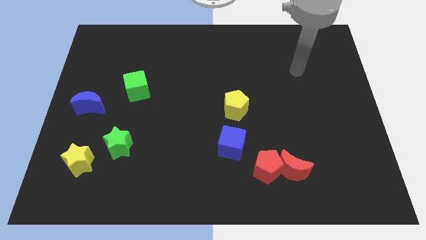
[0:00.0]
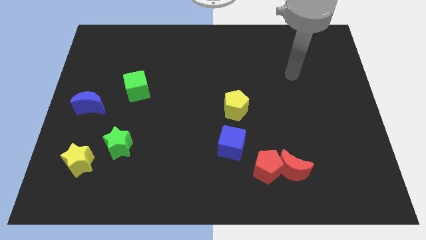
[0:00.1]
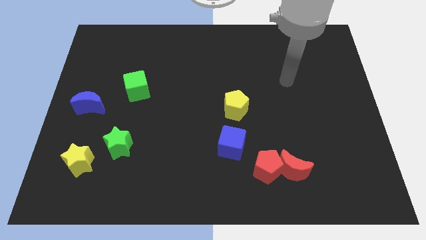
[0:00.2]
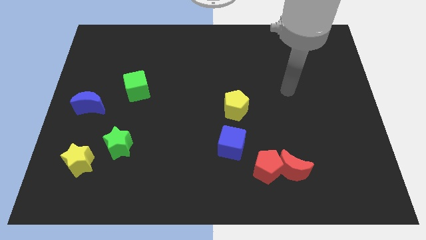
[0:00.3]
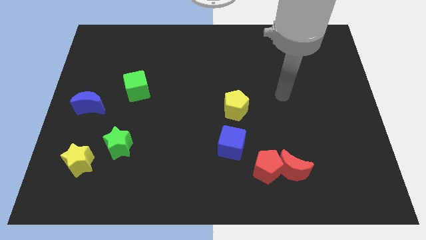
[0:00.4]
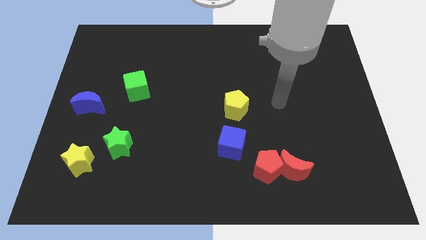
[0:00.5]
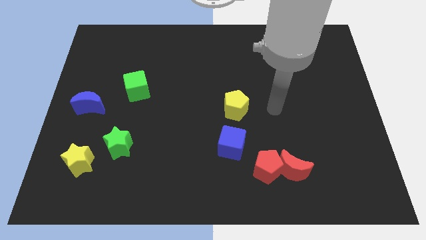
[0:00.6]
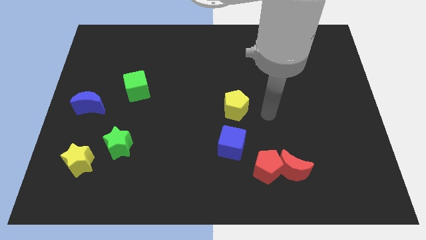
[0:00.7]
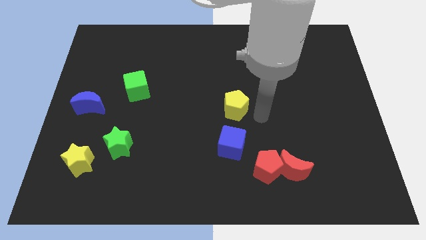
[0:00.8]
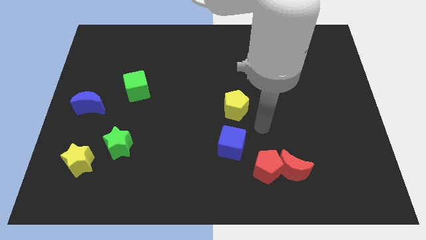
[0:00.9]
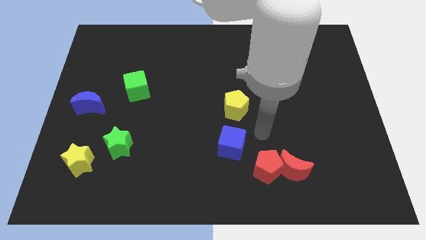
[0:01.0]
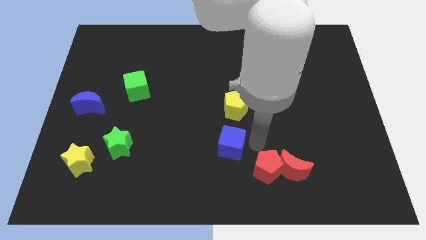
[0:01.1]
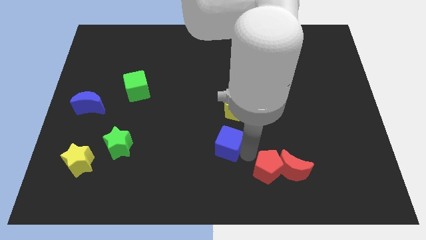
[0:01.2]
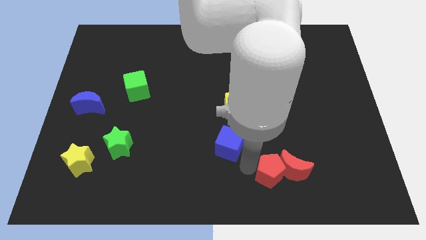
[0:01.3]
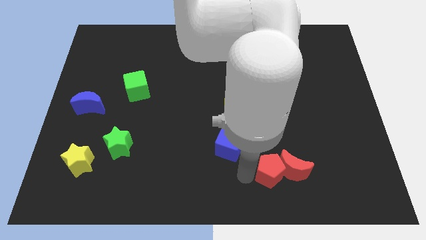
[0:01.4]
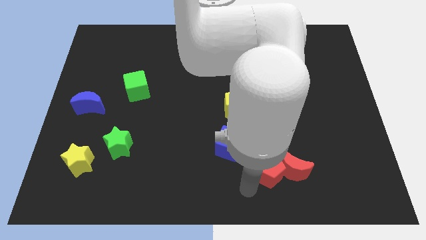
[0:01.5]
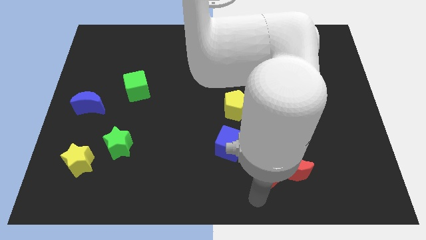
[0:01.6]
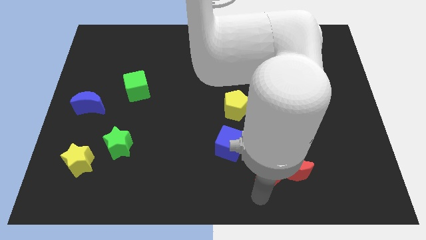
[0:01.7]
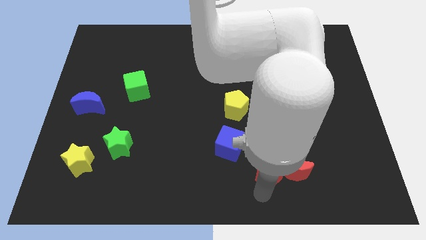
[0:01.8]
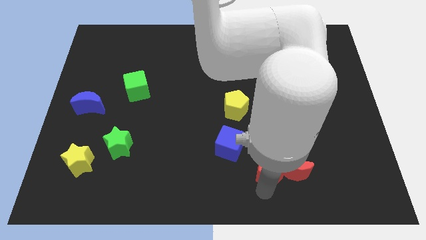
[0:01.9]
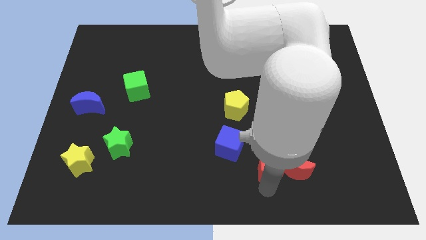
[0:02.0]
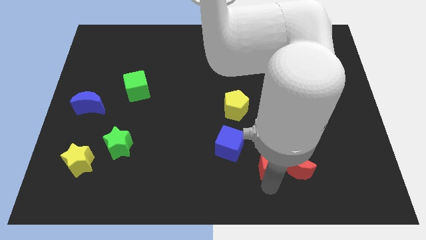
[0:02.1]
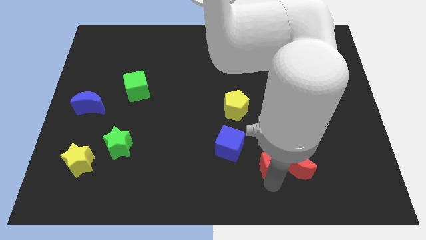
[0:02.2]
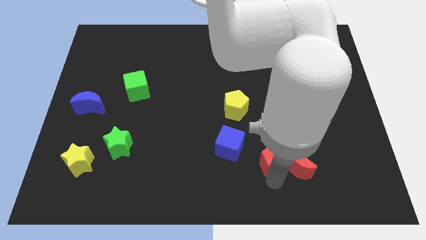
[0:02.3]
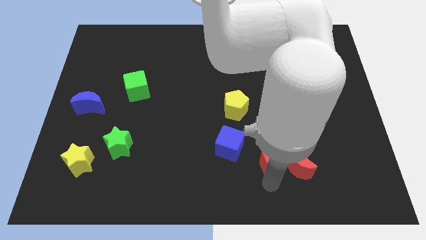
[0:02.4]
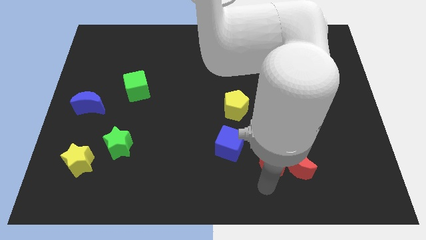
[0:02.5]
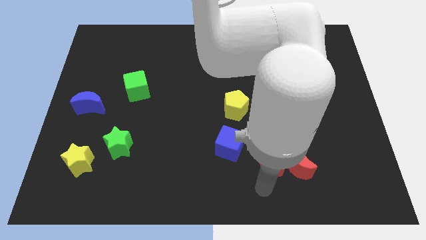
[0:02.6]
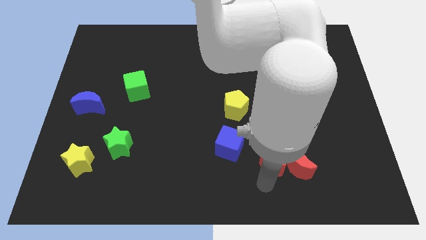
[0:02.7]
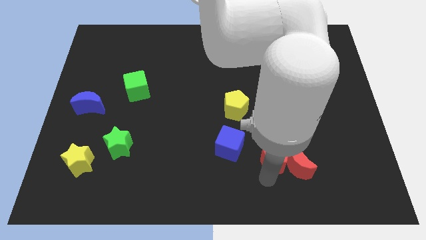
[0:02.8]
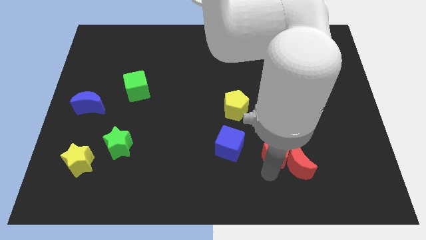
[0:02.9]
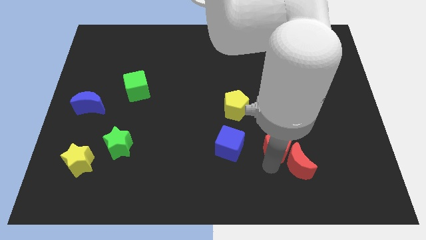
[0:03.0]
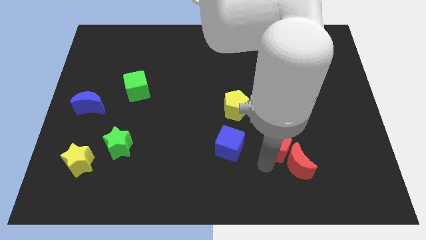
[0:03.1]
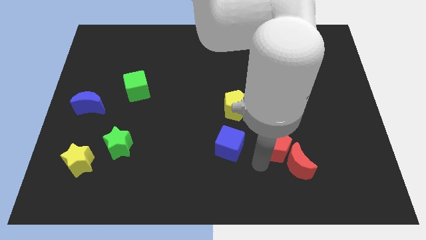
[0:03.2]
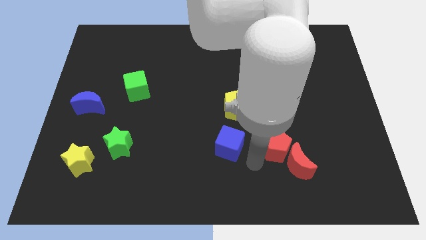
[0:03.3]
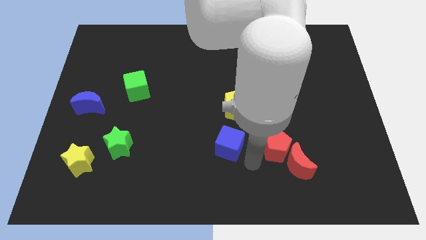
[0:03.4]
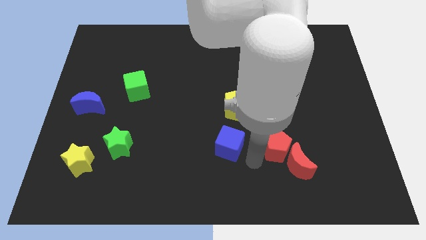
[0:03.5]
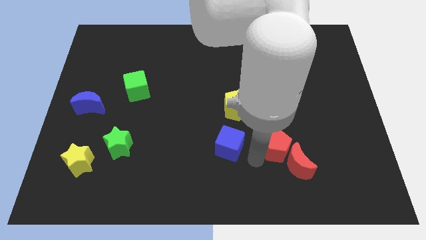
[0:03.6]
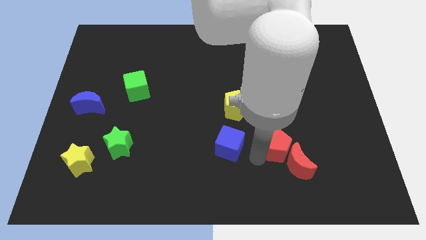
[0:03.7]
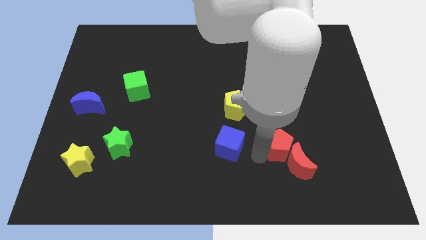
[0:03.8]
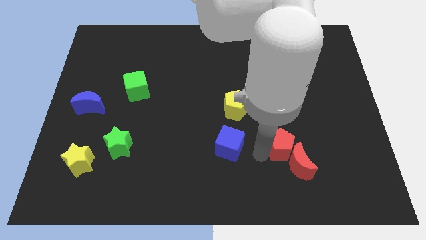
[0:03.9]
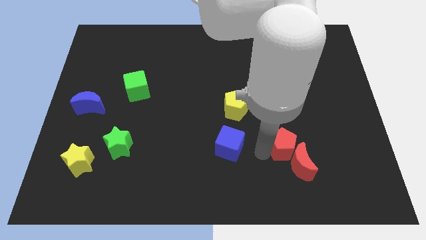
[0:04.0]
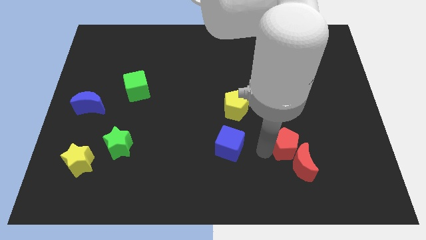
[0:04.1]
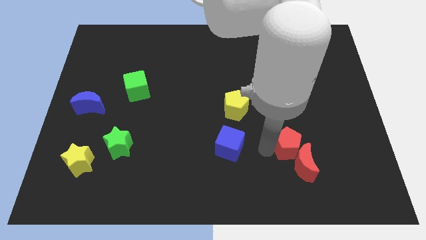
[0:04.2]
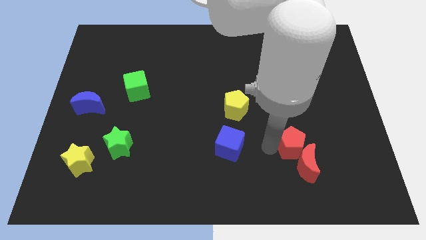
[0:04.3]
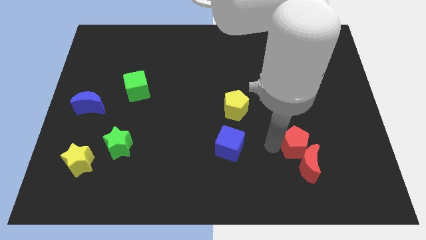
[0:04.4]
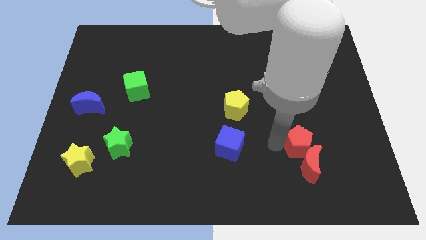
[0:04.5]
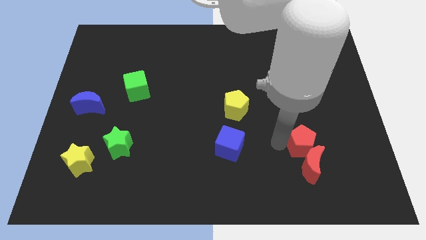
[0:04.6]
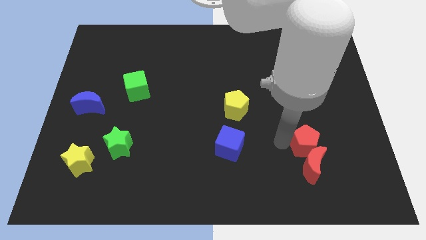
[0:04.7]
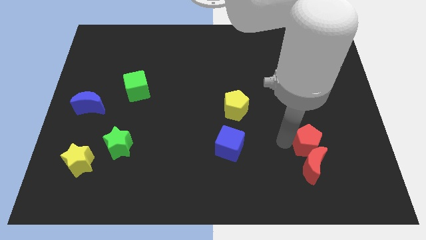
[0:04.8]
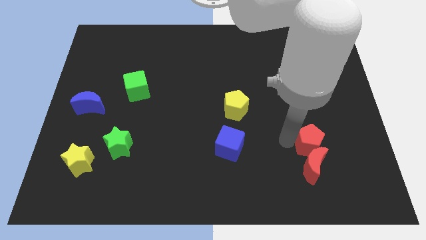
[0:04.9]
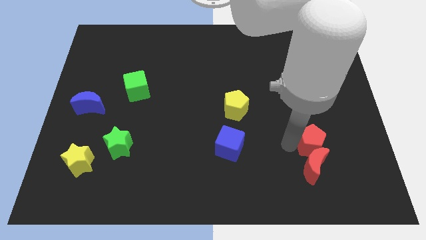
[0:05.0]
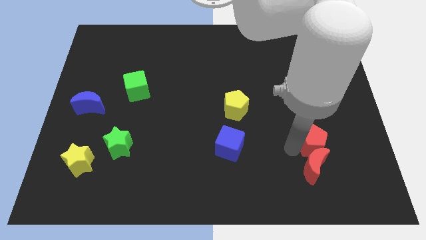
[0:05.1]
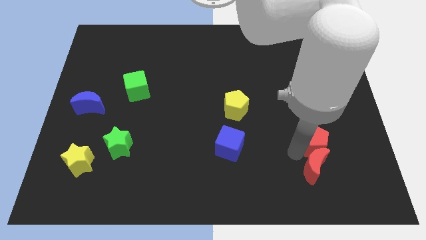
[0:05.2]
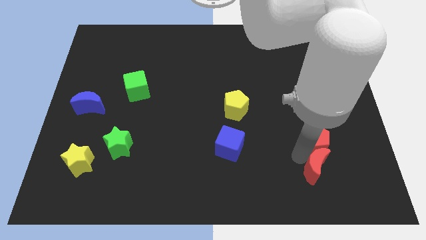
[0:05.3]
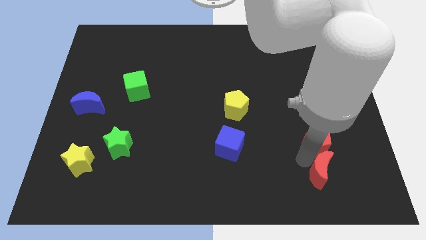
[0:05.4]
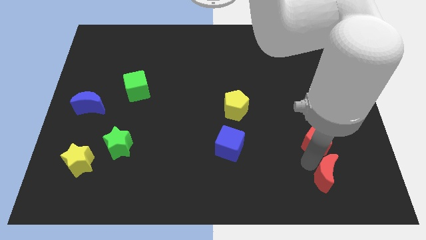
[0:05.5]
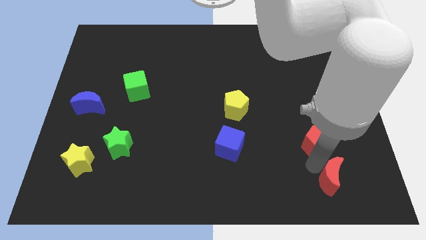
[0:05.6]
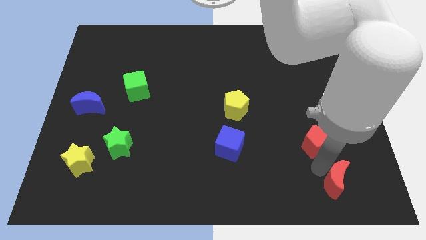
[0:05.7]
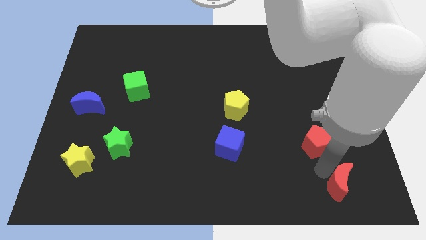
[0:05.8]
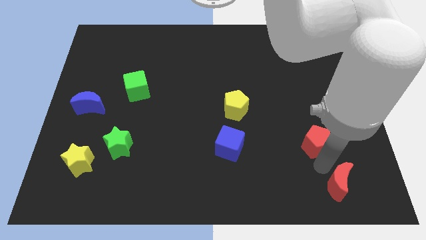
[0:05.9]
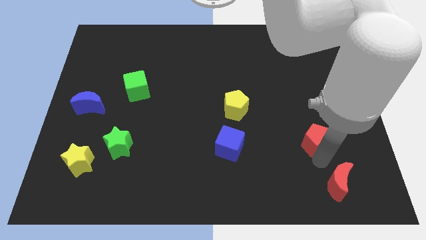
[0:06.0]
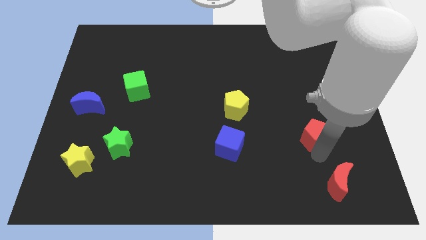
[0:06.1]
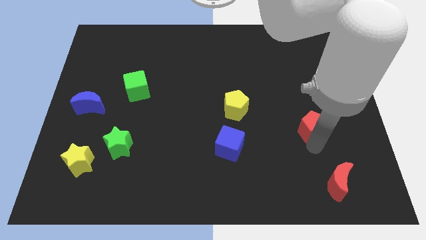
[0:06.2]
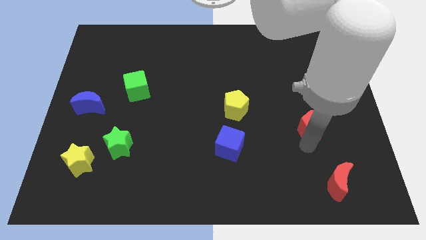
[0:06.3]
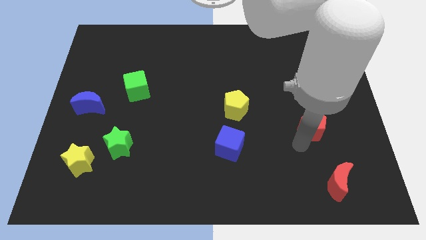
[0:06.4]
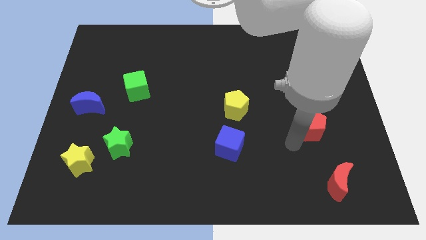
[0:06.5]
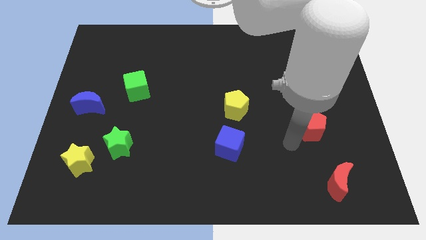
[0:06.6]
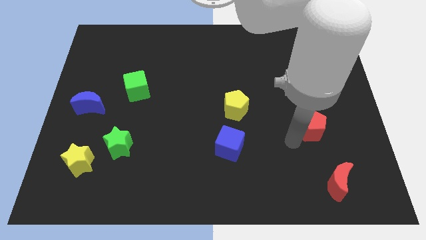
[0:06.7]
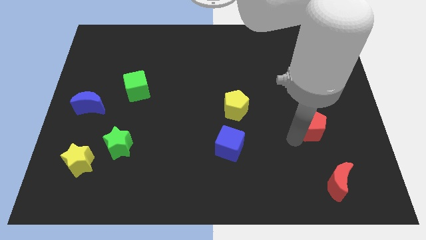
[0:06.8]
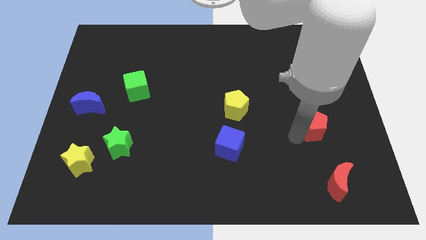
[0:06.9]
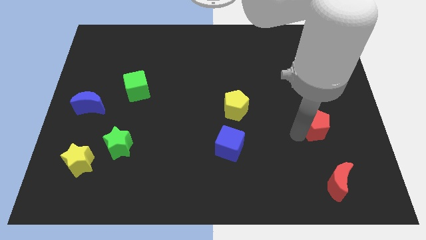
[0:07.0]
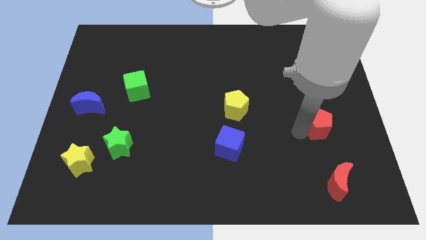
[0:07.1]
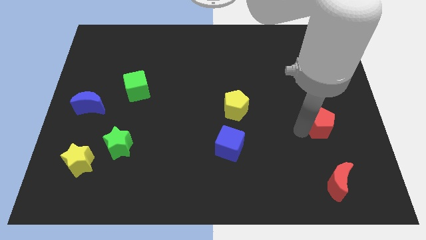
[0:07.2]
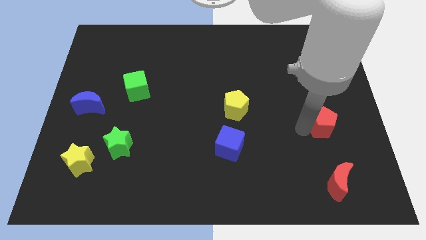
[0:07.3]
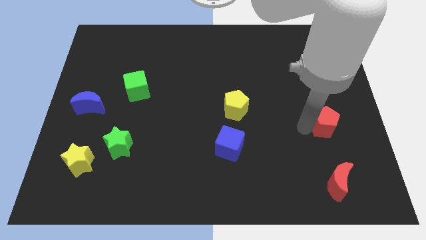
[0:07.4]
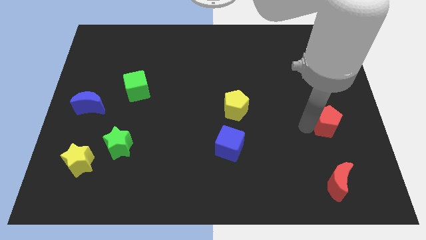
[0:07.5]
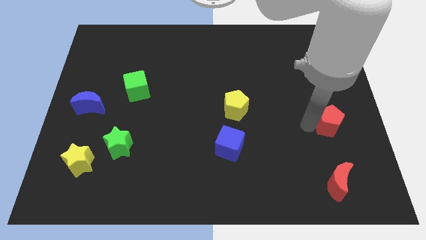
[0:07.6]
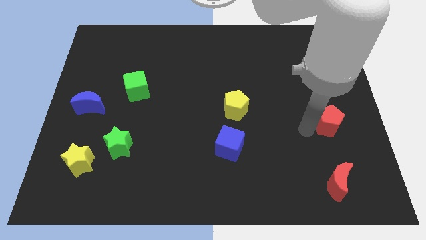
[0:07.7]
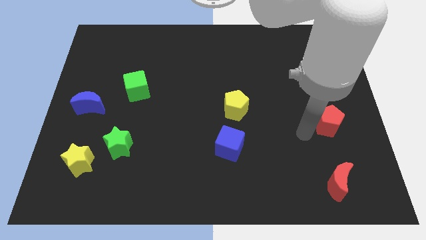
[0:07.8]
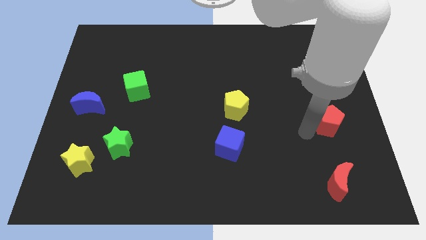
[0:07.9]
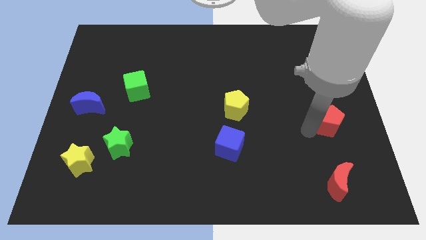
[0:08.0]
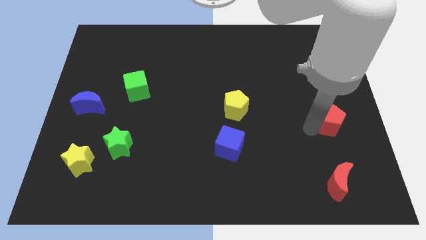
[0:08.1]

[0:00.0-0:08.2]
push the red pentagon to the right side of the board
